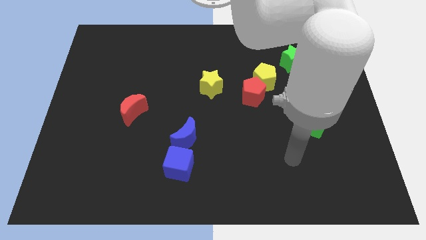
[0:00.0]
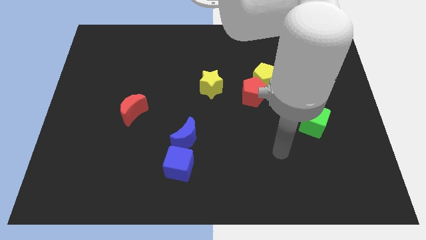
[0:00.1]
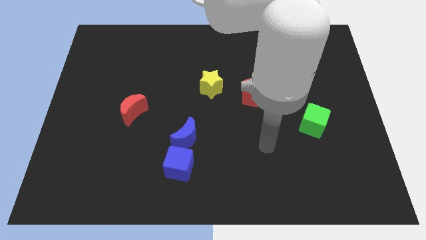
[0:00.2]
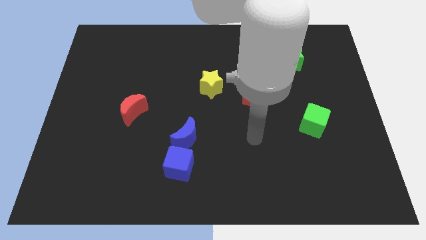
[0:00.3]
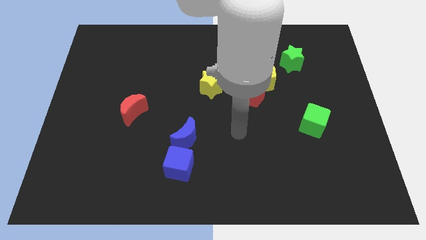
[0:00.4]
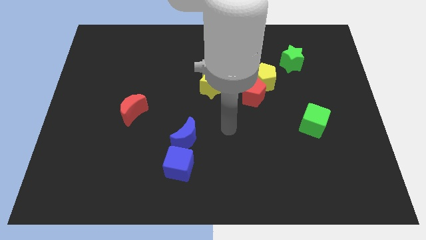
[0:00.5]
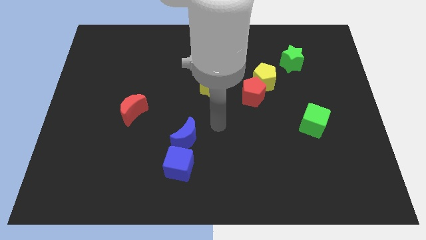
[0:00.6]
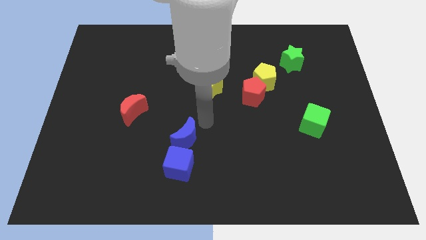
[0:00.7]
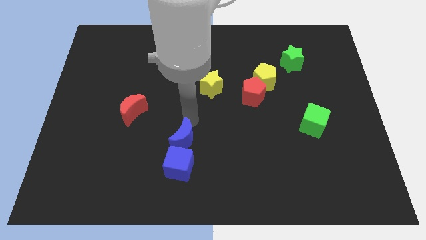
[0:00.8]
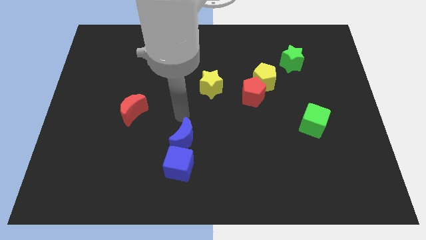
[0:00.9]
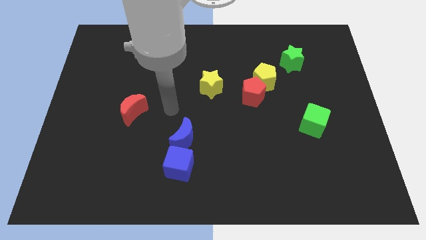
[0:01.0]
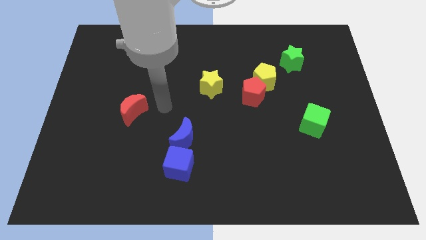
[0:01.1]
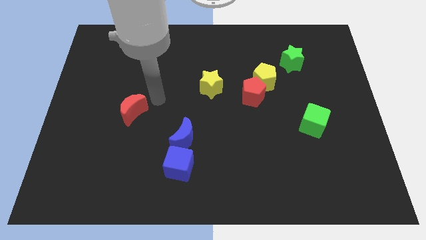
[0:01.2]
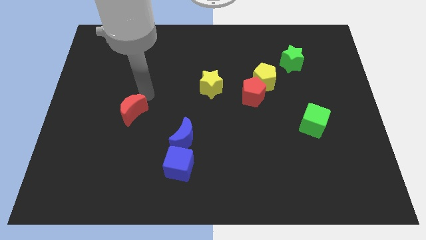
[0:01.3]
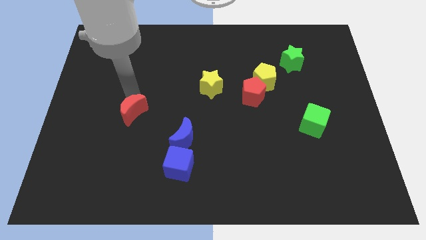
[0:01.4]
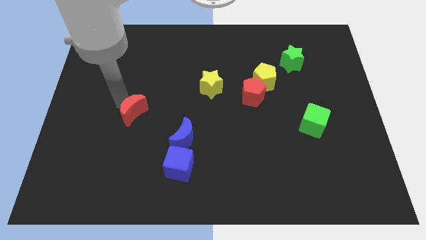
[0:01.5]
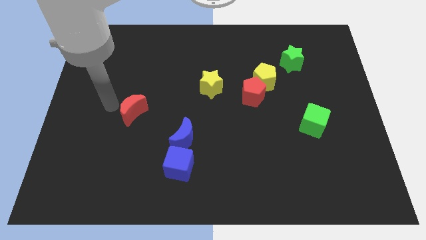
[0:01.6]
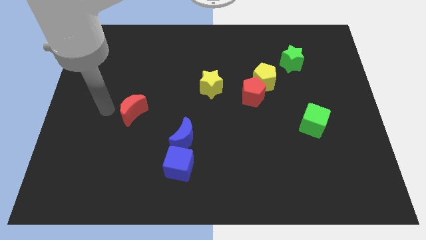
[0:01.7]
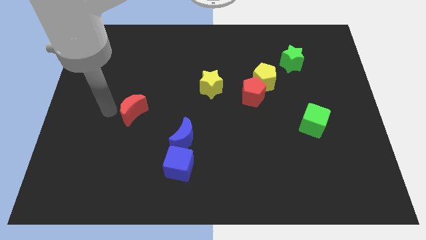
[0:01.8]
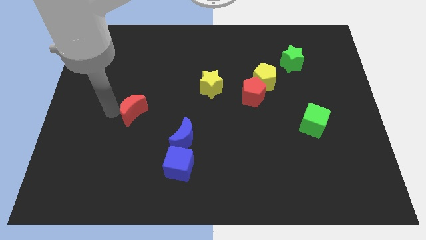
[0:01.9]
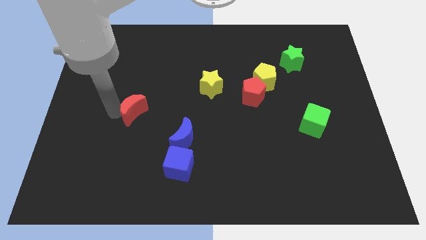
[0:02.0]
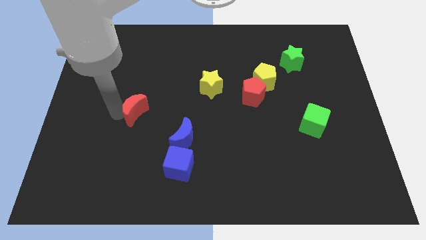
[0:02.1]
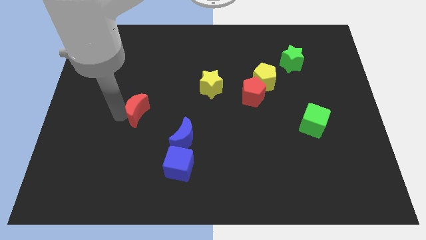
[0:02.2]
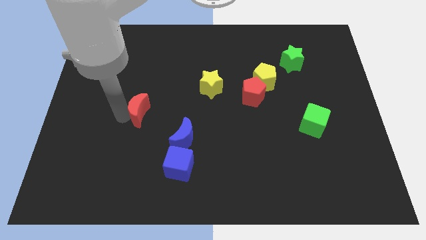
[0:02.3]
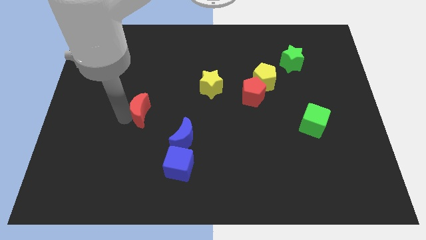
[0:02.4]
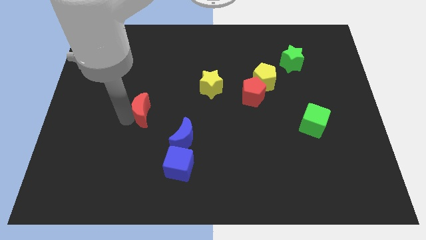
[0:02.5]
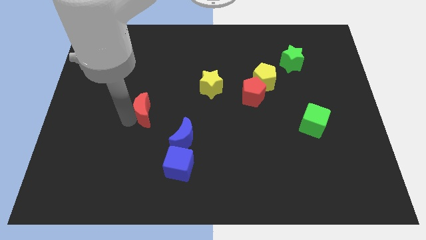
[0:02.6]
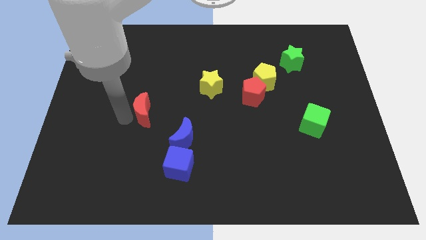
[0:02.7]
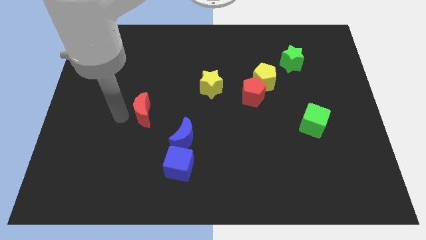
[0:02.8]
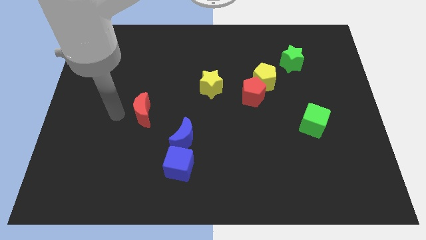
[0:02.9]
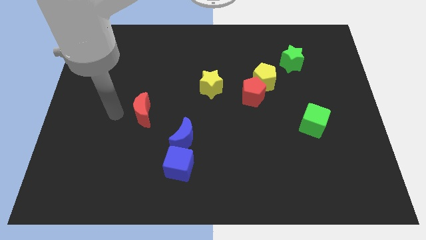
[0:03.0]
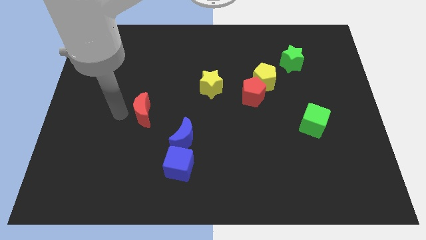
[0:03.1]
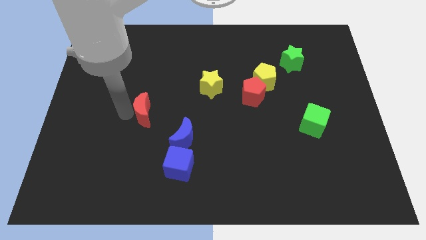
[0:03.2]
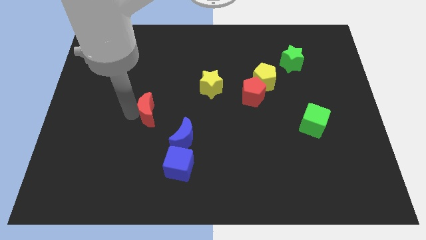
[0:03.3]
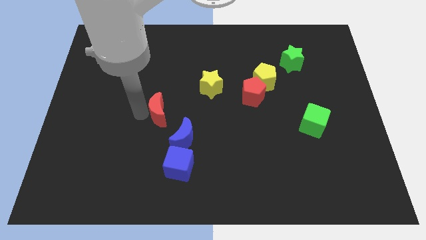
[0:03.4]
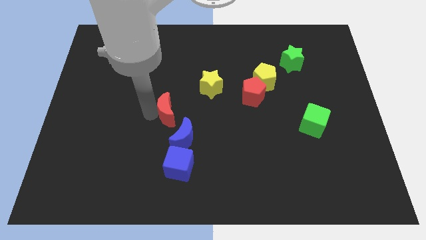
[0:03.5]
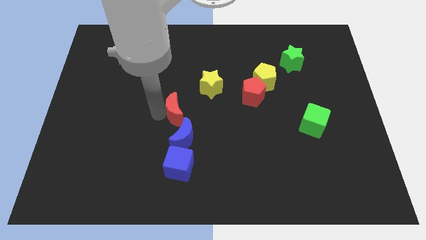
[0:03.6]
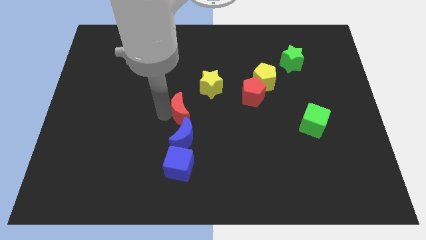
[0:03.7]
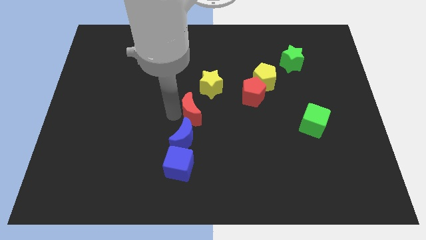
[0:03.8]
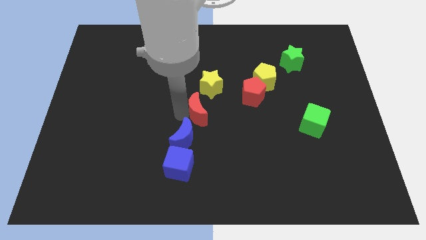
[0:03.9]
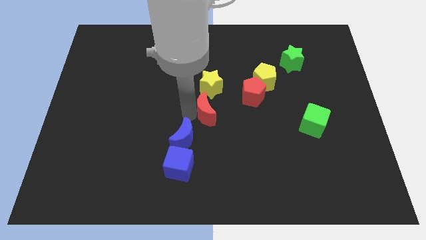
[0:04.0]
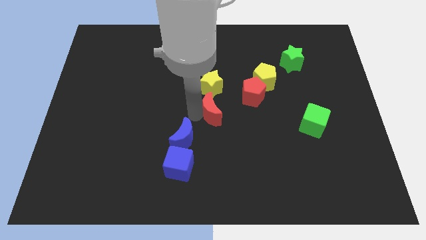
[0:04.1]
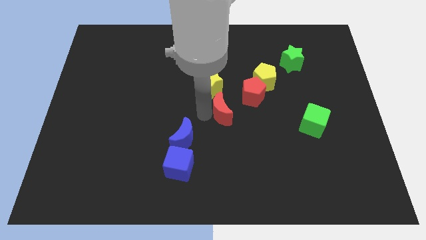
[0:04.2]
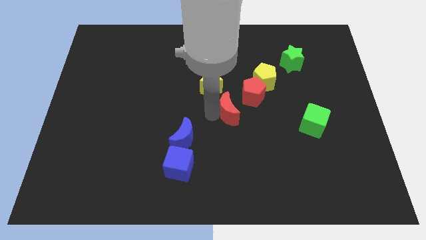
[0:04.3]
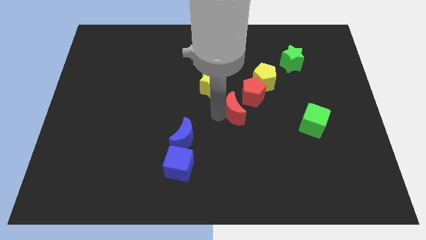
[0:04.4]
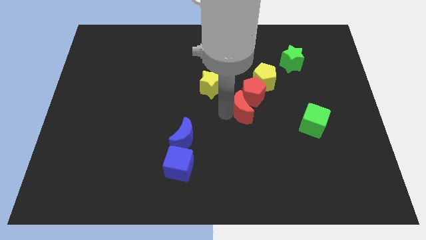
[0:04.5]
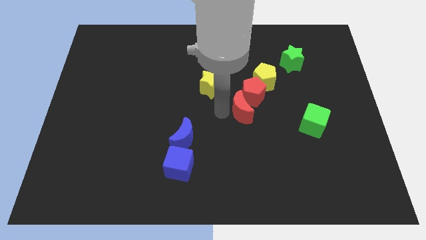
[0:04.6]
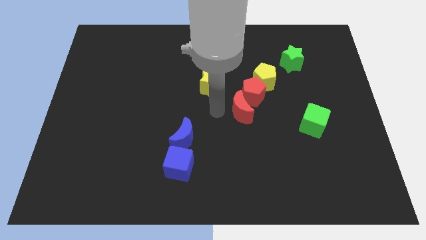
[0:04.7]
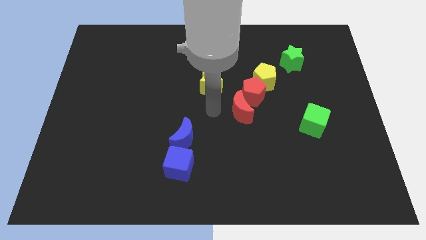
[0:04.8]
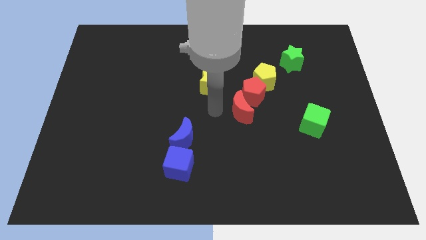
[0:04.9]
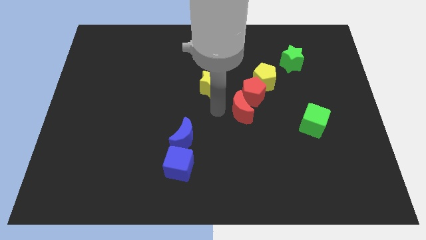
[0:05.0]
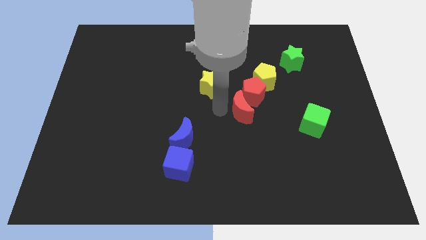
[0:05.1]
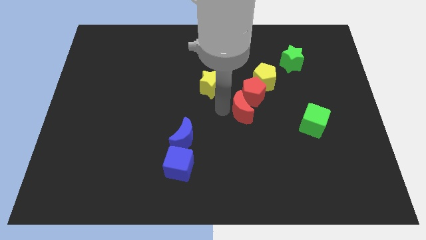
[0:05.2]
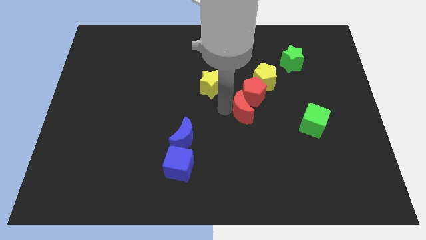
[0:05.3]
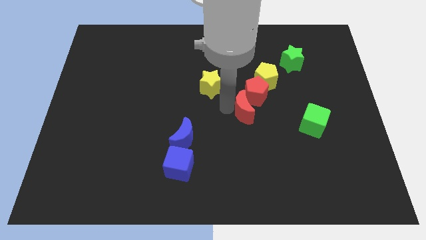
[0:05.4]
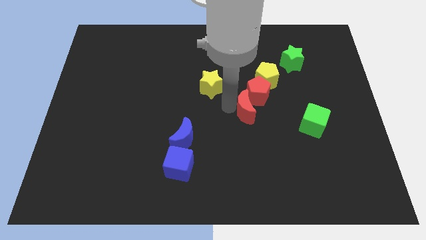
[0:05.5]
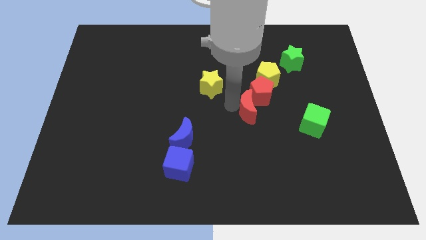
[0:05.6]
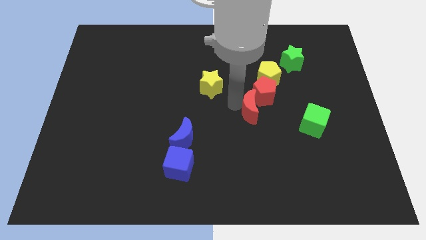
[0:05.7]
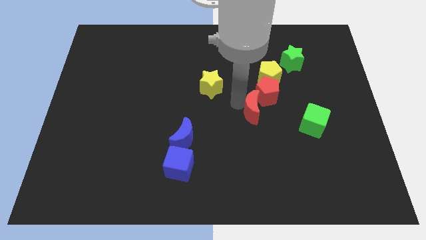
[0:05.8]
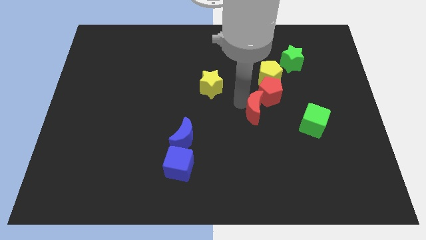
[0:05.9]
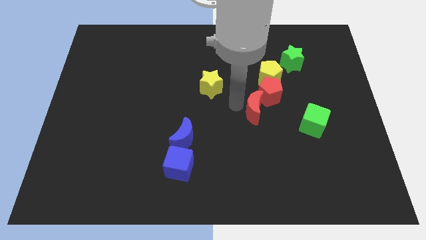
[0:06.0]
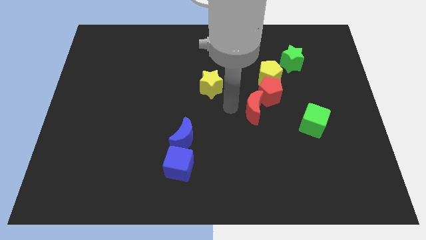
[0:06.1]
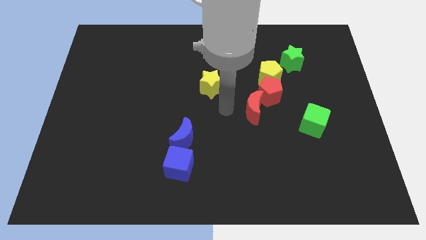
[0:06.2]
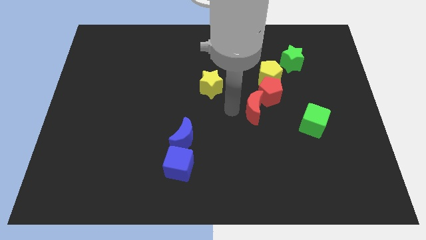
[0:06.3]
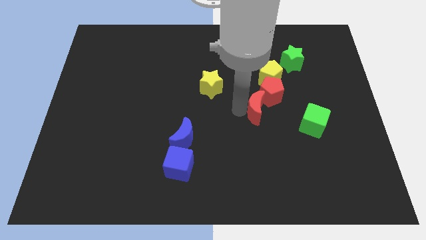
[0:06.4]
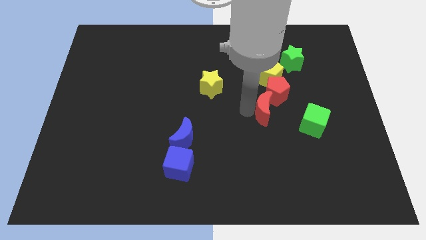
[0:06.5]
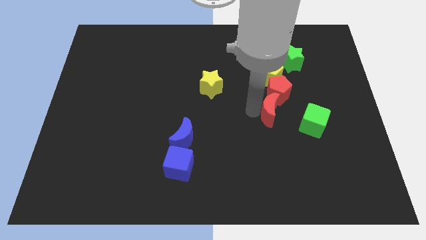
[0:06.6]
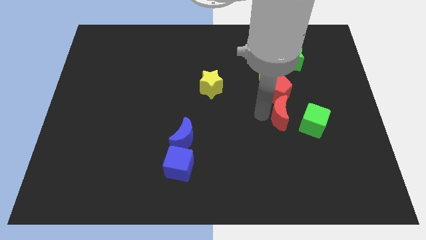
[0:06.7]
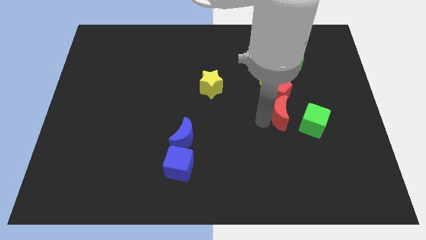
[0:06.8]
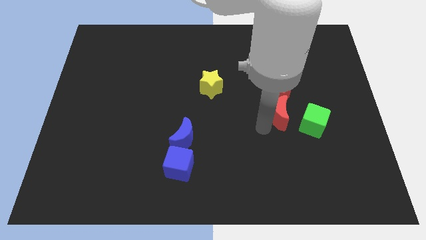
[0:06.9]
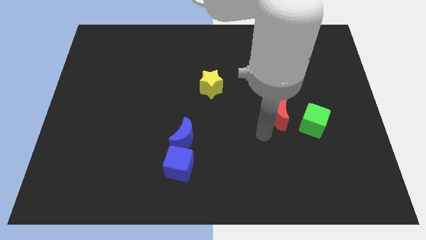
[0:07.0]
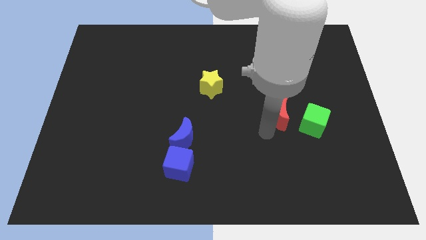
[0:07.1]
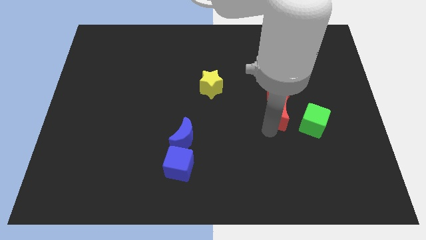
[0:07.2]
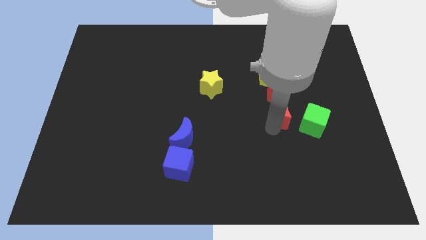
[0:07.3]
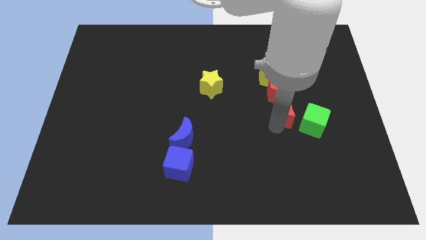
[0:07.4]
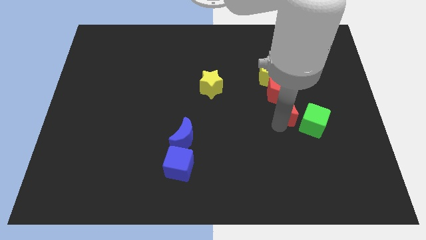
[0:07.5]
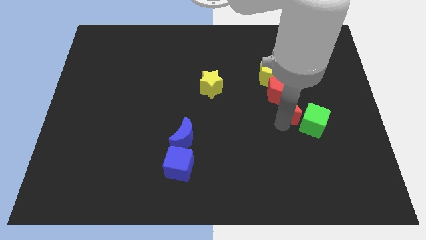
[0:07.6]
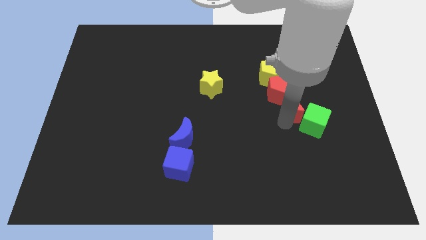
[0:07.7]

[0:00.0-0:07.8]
move the red moon below the green star
